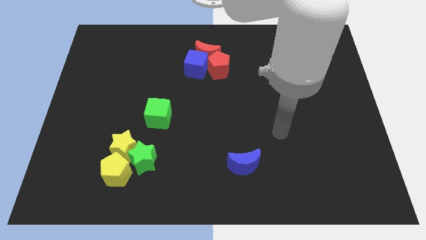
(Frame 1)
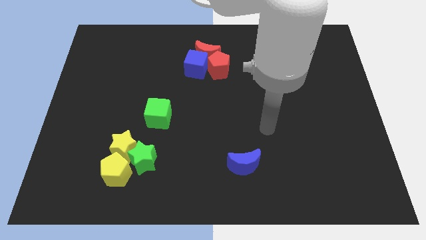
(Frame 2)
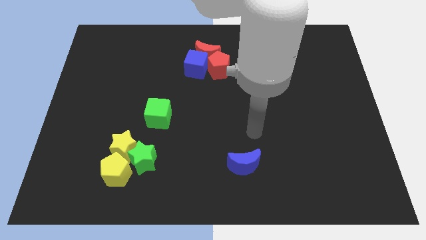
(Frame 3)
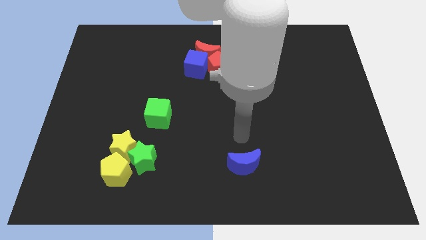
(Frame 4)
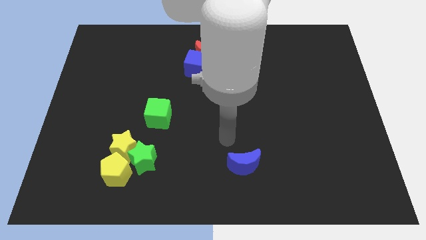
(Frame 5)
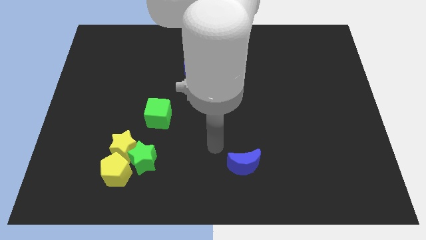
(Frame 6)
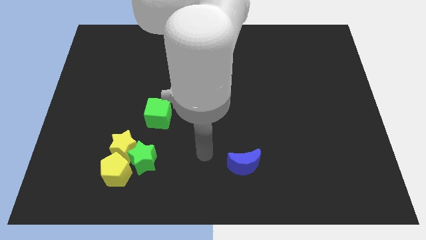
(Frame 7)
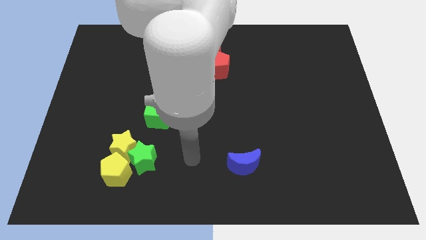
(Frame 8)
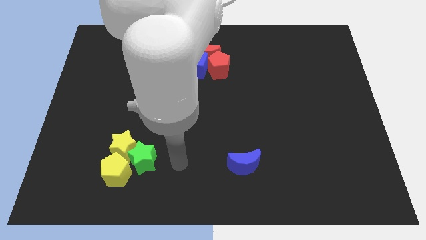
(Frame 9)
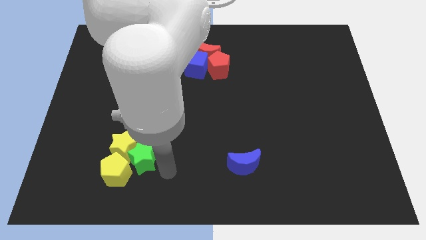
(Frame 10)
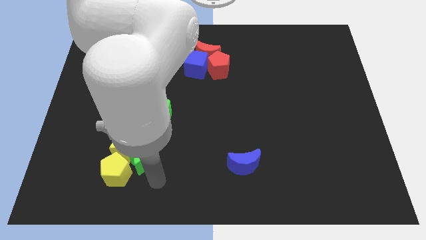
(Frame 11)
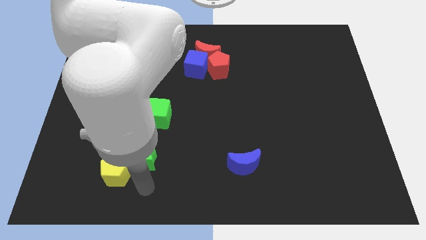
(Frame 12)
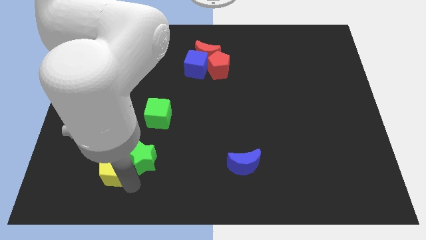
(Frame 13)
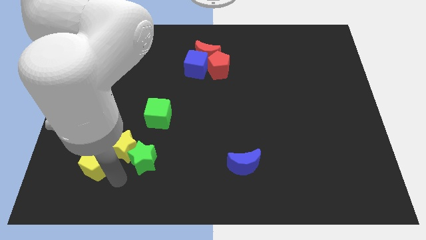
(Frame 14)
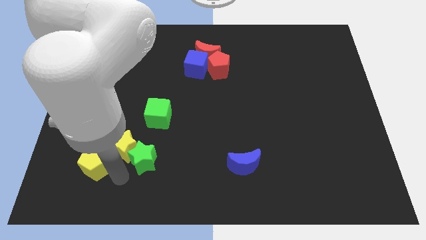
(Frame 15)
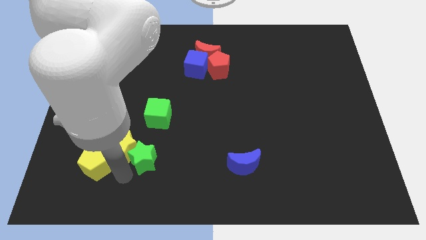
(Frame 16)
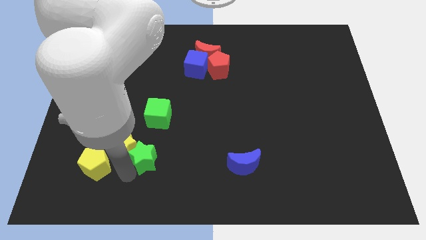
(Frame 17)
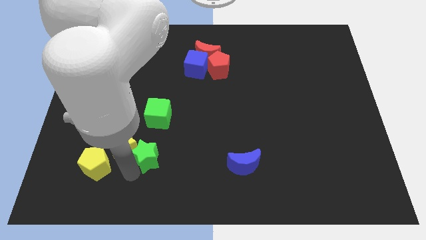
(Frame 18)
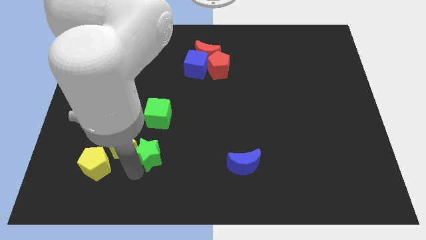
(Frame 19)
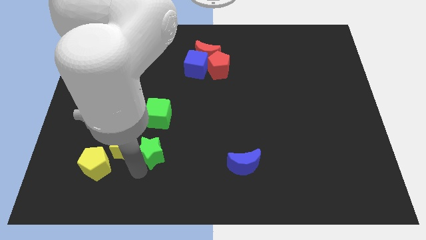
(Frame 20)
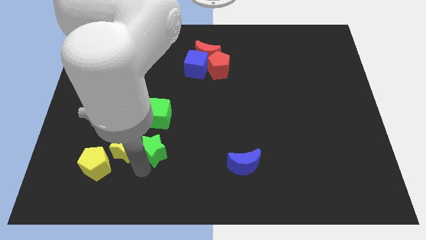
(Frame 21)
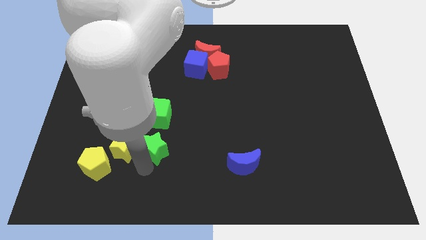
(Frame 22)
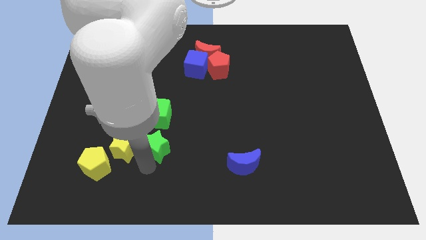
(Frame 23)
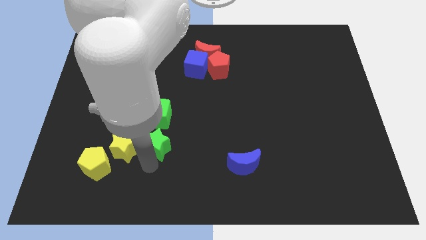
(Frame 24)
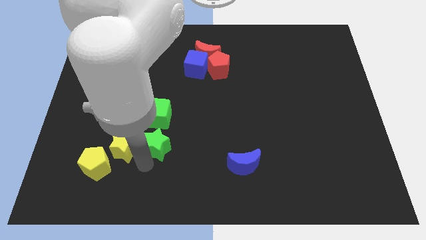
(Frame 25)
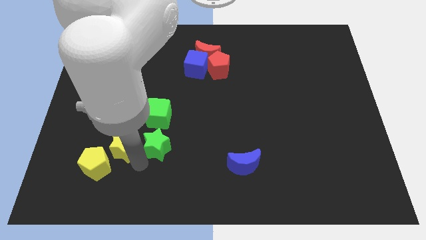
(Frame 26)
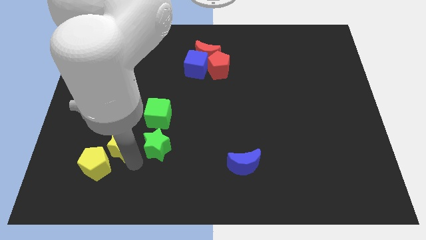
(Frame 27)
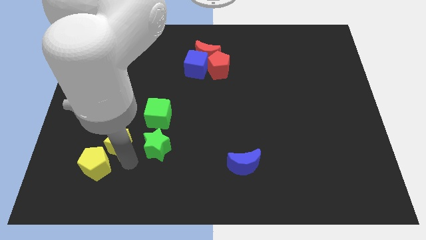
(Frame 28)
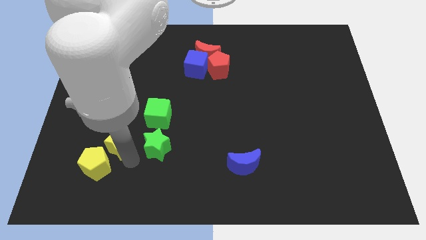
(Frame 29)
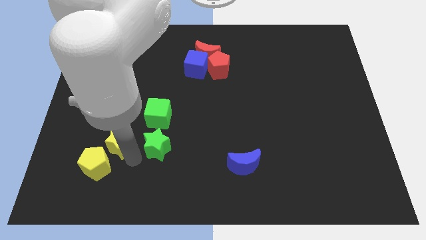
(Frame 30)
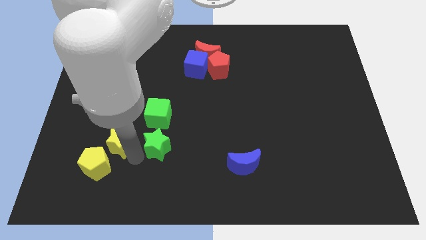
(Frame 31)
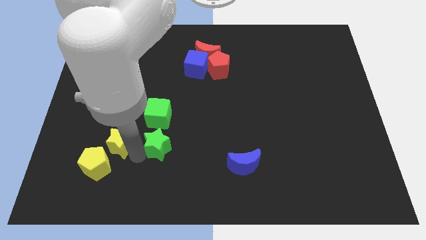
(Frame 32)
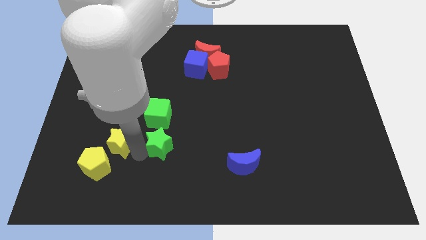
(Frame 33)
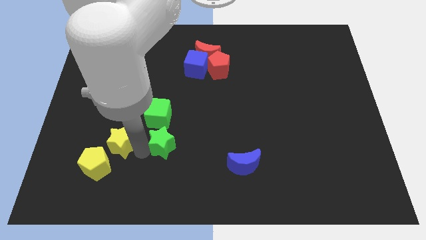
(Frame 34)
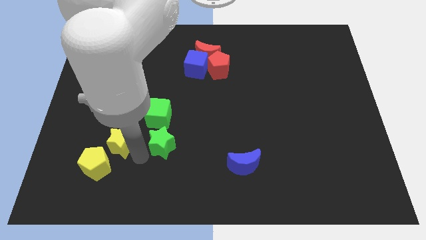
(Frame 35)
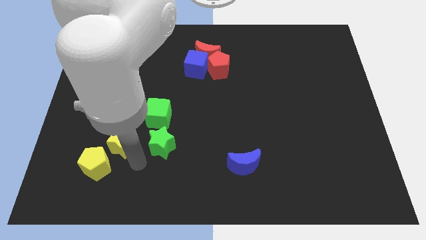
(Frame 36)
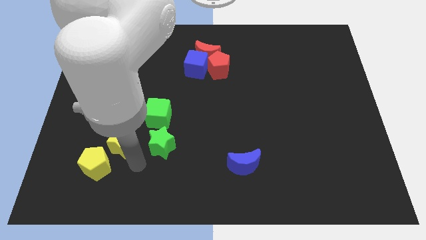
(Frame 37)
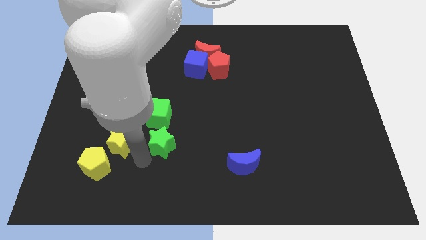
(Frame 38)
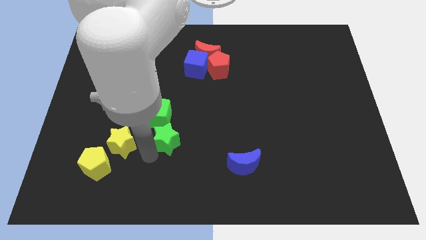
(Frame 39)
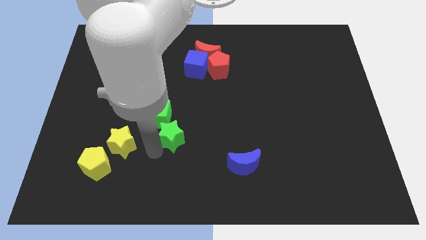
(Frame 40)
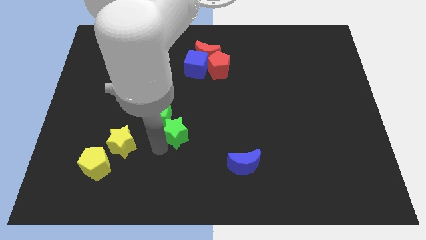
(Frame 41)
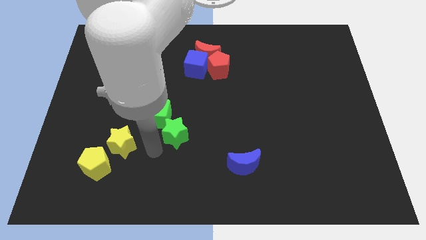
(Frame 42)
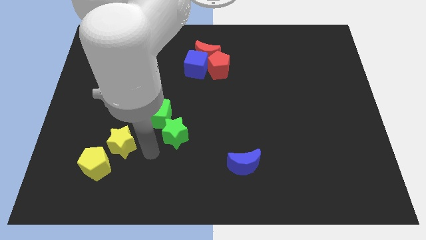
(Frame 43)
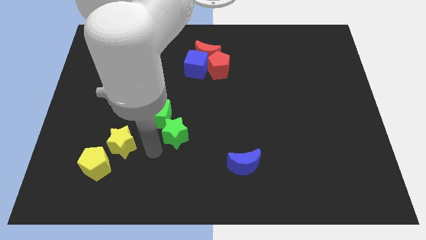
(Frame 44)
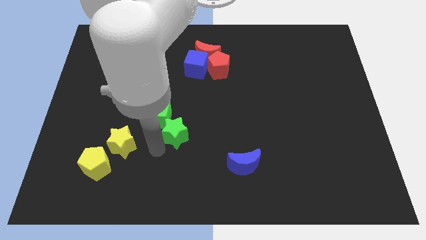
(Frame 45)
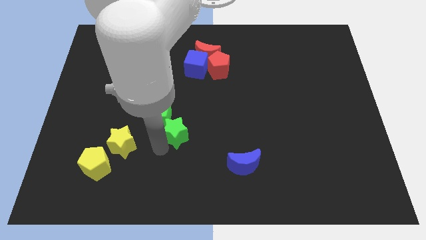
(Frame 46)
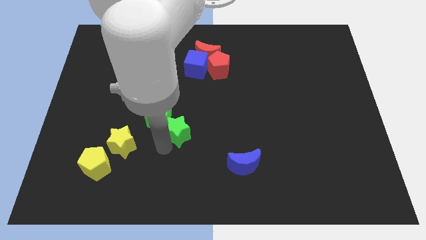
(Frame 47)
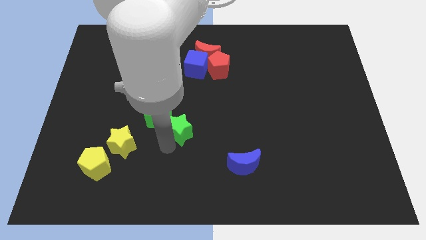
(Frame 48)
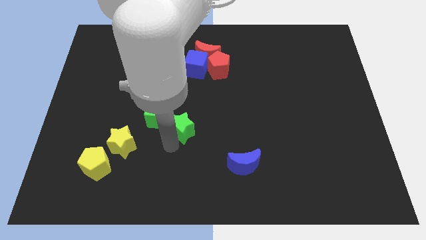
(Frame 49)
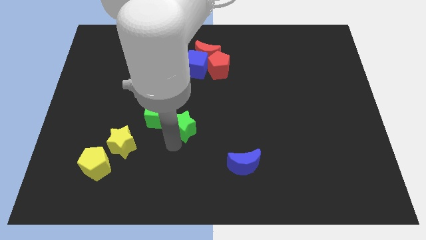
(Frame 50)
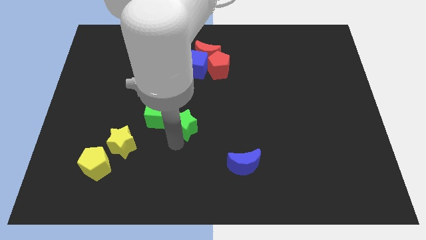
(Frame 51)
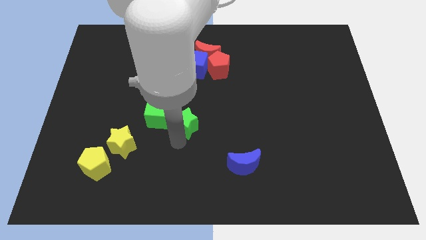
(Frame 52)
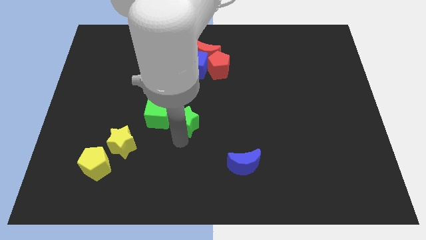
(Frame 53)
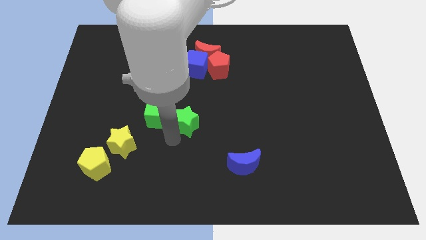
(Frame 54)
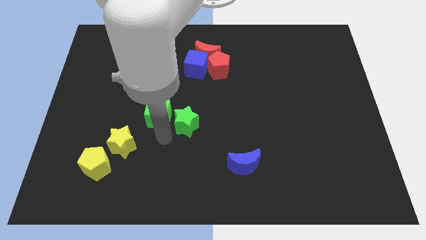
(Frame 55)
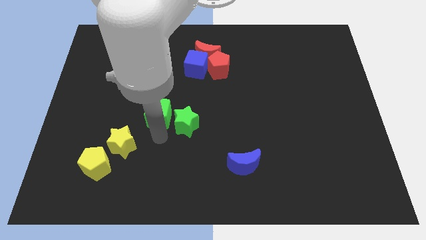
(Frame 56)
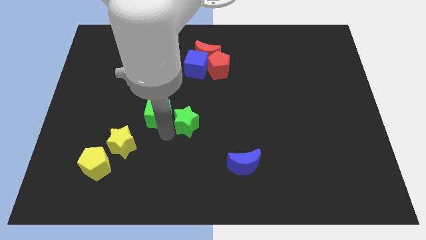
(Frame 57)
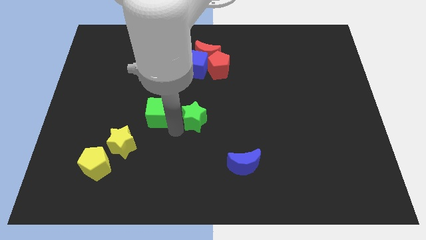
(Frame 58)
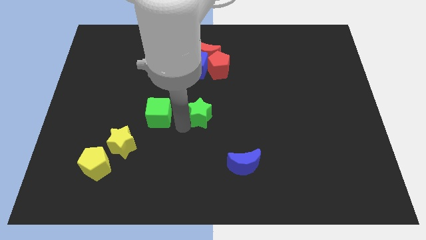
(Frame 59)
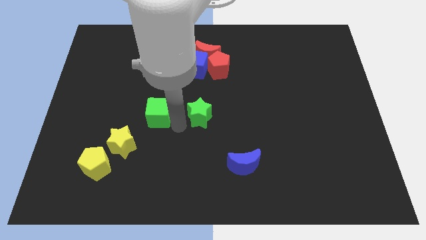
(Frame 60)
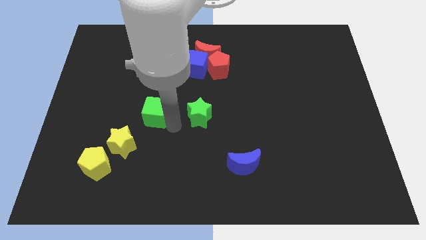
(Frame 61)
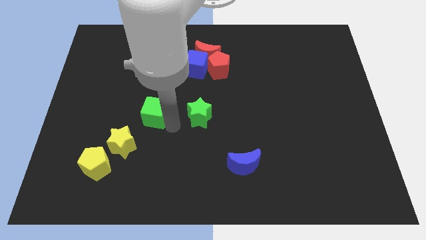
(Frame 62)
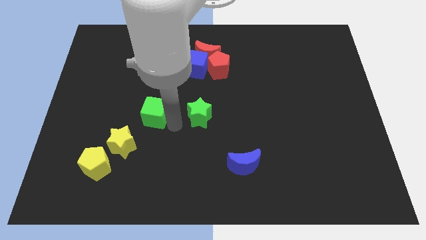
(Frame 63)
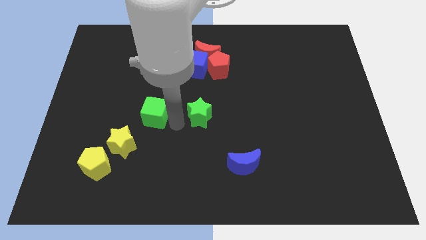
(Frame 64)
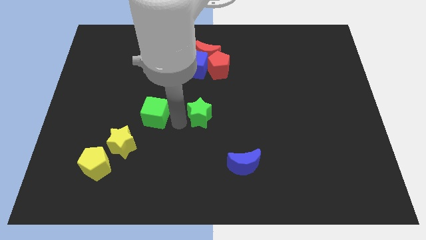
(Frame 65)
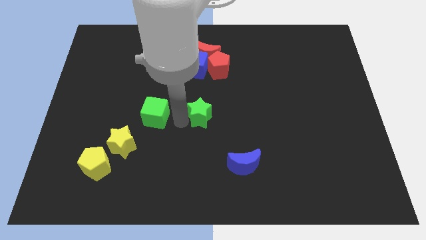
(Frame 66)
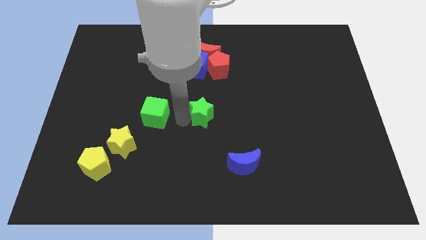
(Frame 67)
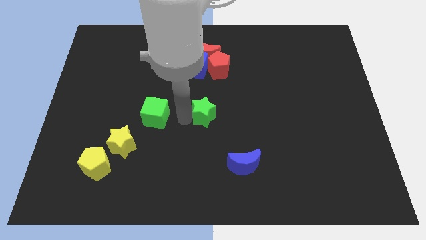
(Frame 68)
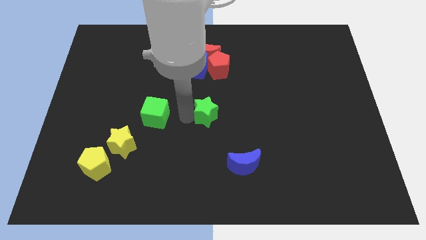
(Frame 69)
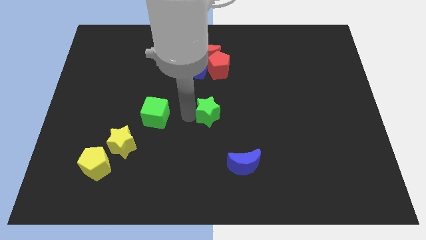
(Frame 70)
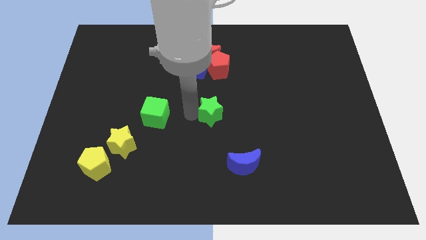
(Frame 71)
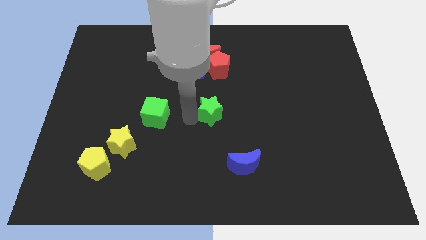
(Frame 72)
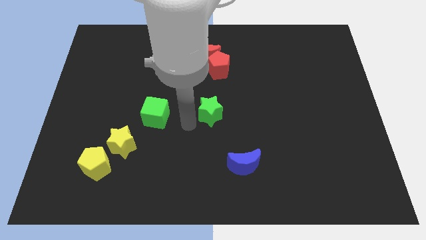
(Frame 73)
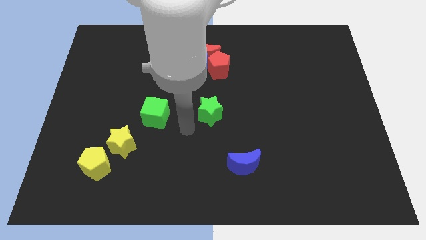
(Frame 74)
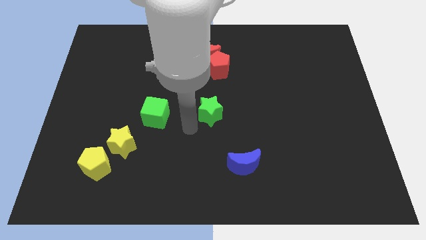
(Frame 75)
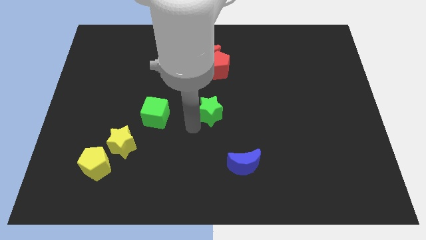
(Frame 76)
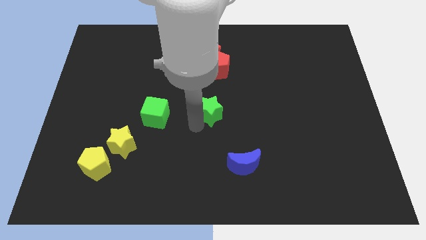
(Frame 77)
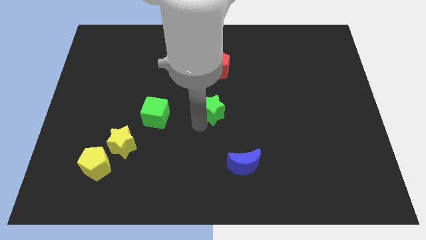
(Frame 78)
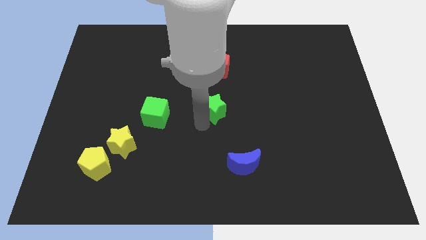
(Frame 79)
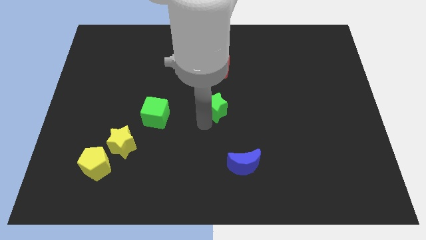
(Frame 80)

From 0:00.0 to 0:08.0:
slide the green star upwards and right diagonally
